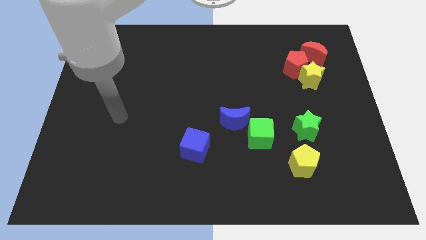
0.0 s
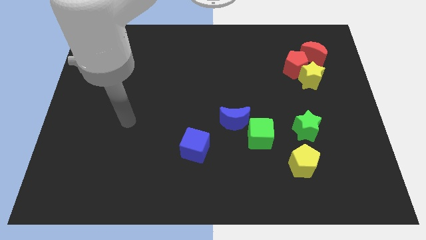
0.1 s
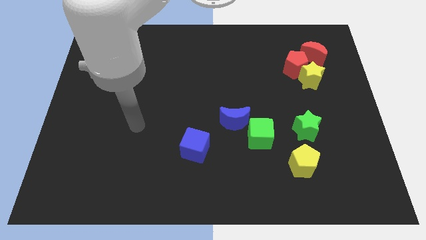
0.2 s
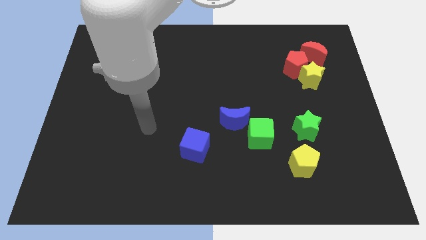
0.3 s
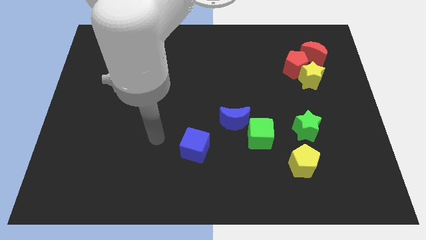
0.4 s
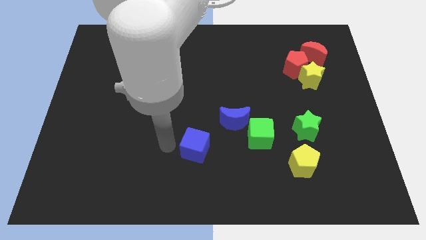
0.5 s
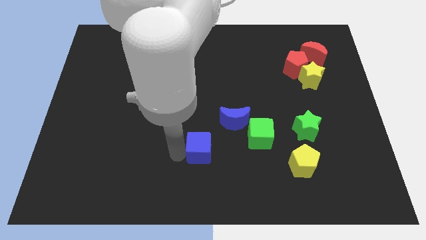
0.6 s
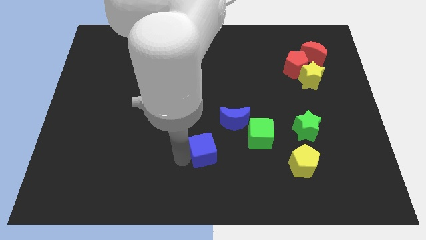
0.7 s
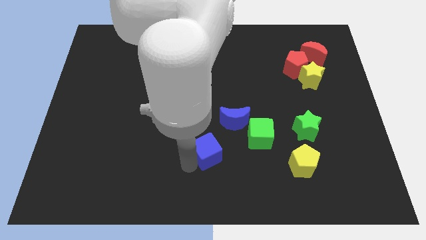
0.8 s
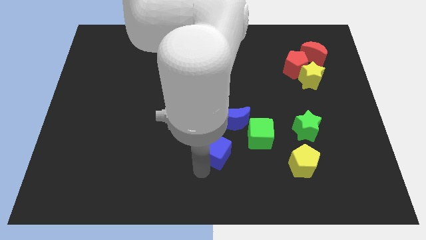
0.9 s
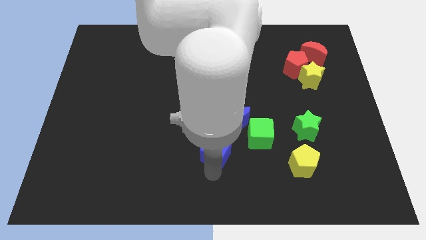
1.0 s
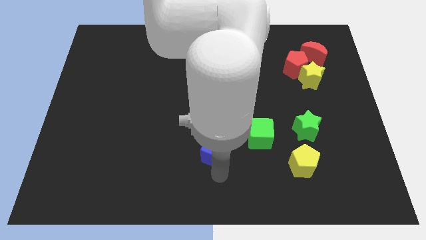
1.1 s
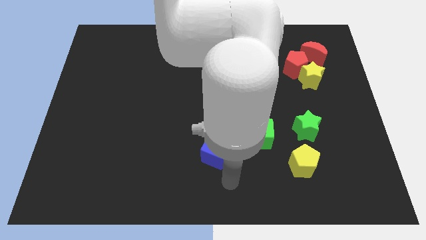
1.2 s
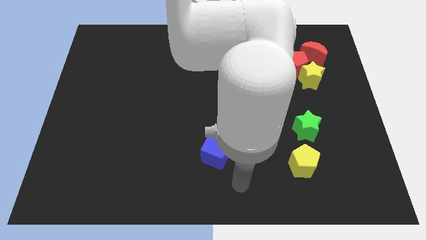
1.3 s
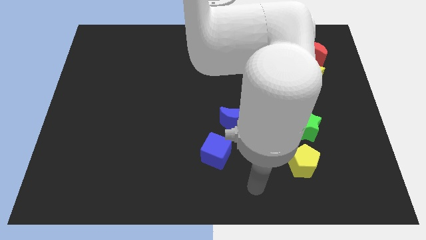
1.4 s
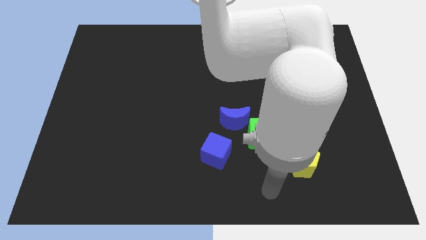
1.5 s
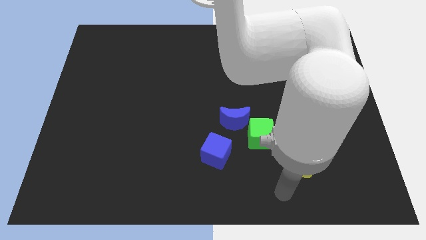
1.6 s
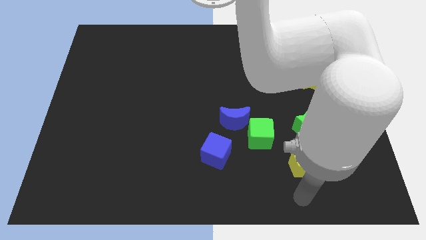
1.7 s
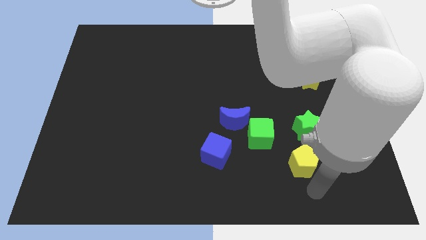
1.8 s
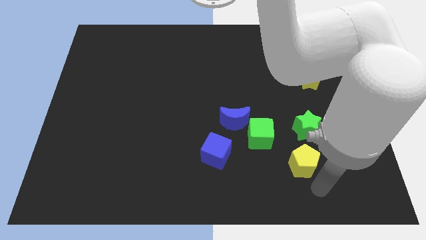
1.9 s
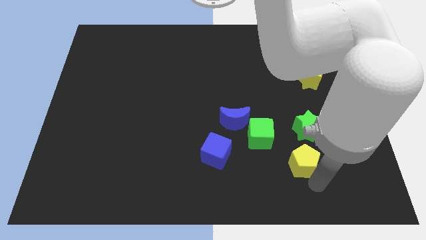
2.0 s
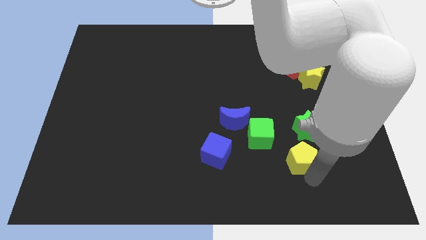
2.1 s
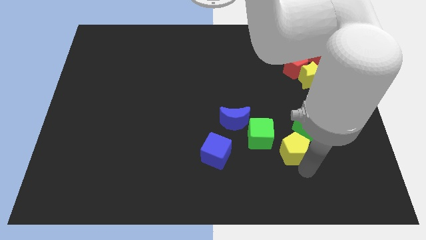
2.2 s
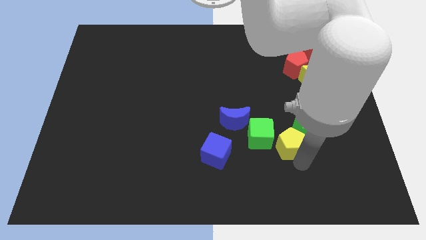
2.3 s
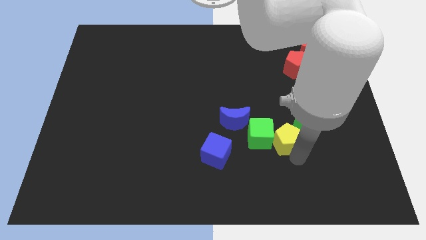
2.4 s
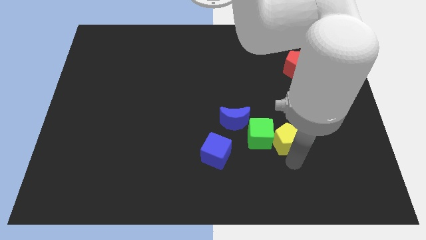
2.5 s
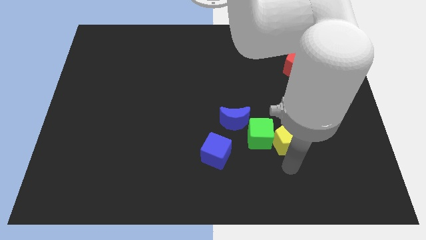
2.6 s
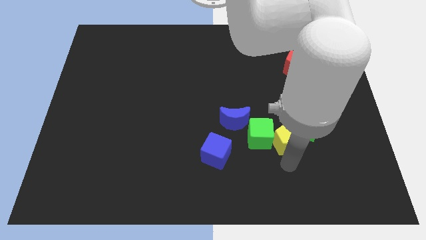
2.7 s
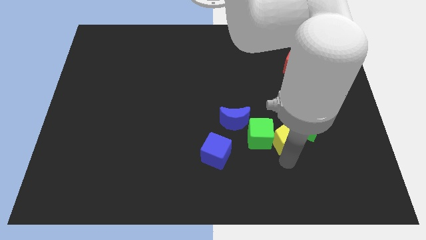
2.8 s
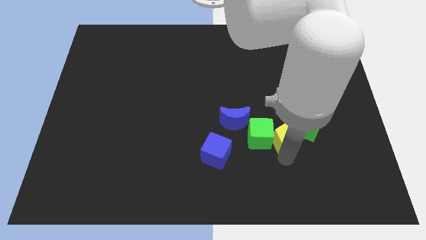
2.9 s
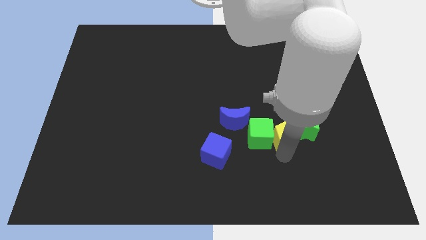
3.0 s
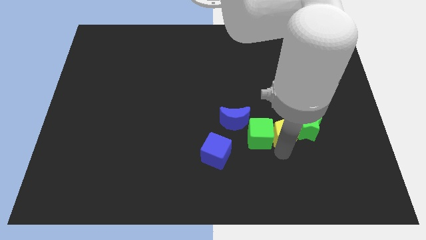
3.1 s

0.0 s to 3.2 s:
move the yellow pentagon somewhat upwards

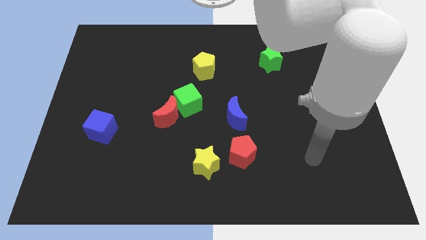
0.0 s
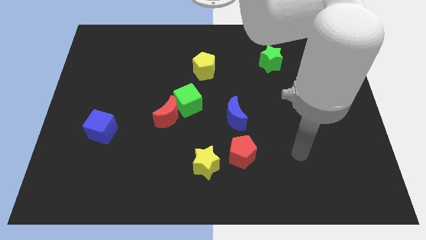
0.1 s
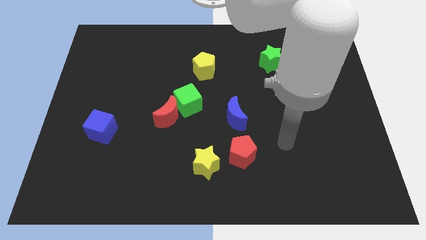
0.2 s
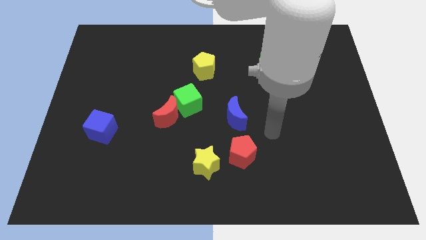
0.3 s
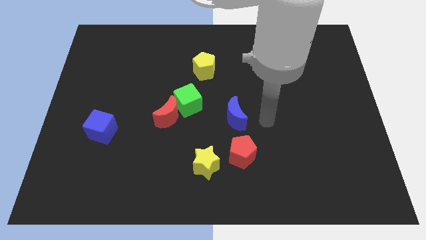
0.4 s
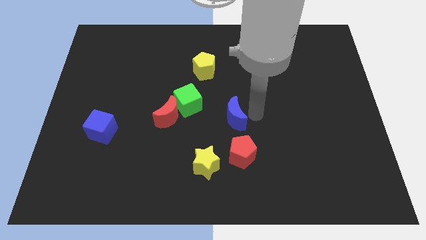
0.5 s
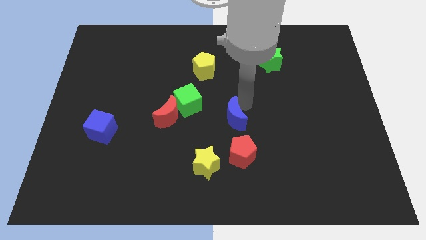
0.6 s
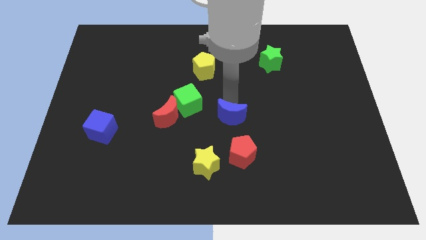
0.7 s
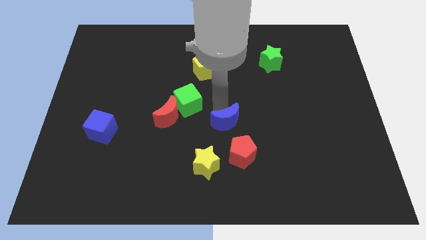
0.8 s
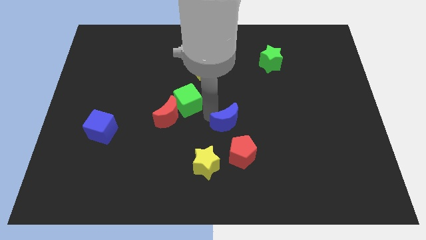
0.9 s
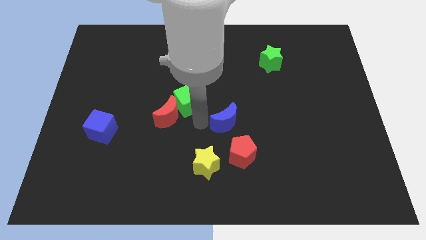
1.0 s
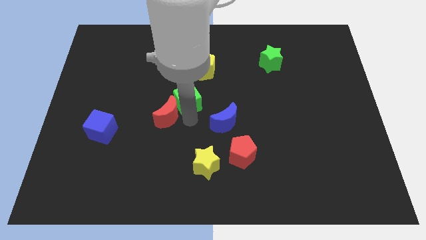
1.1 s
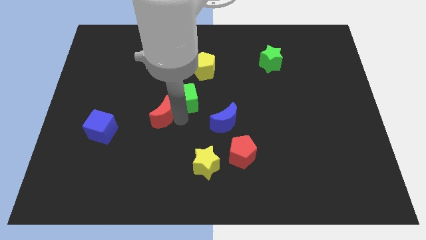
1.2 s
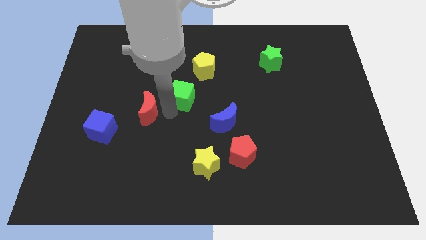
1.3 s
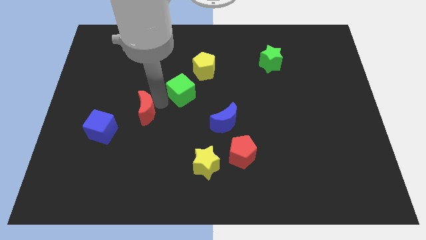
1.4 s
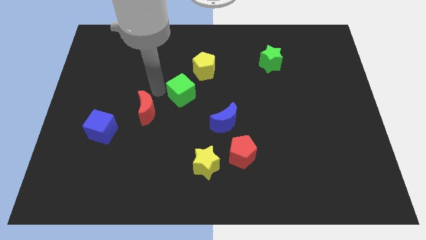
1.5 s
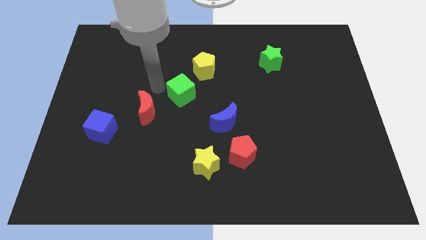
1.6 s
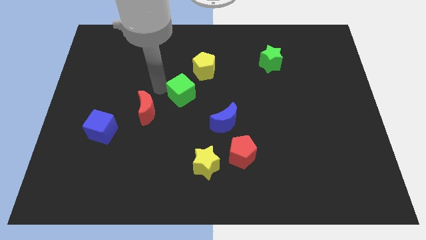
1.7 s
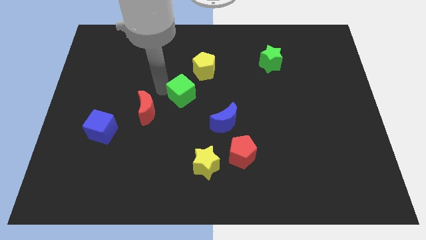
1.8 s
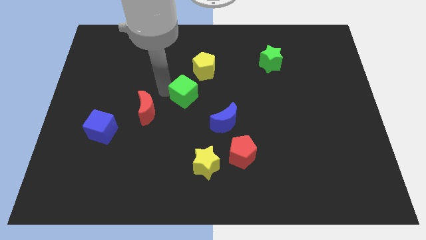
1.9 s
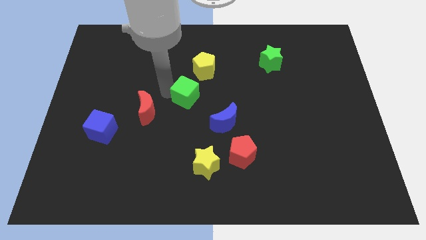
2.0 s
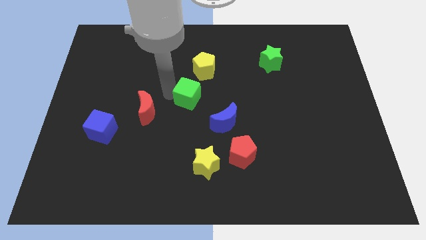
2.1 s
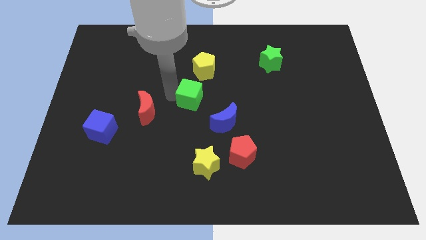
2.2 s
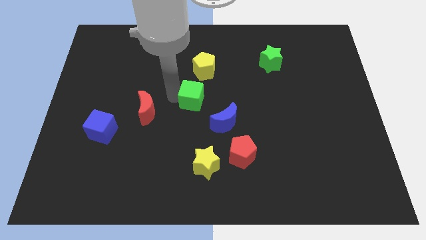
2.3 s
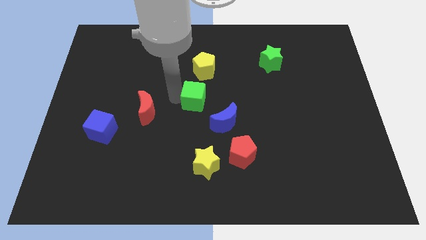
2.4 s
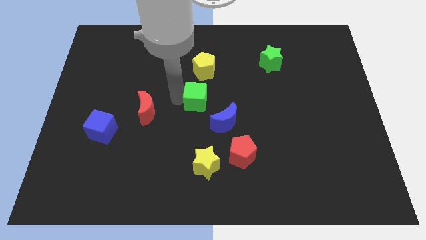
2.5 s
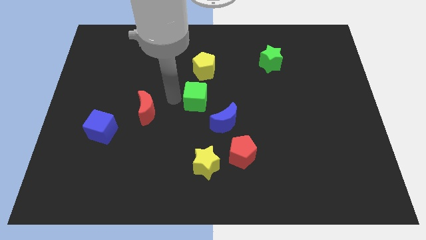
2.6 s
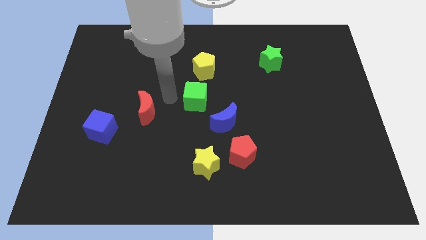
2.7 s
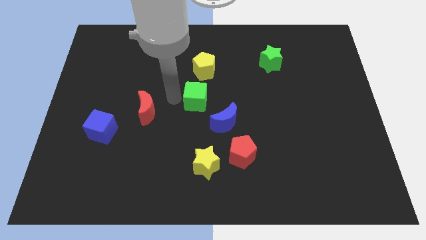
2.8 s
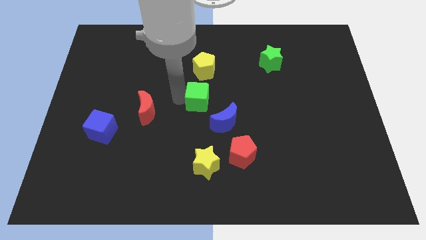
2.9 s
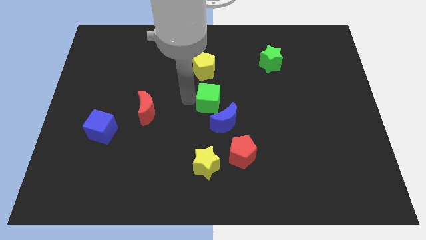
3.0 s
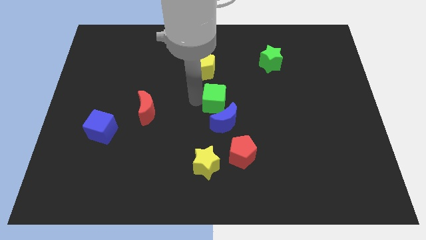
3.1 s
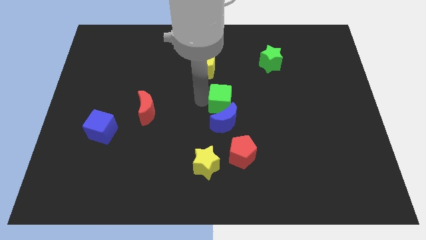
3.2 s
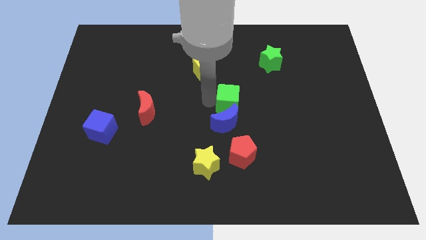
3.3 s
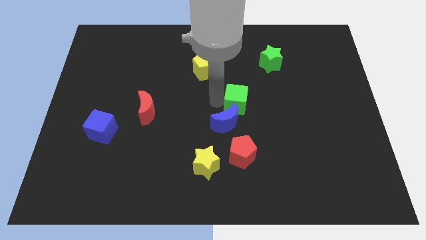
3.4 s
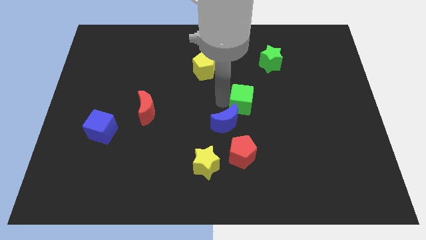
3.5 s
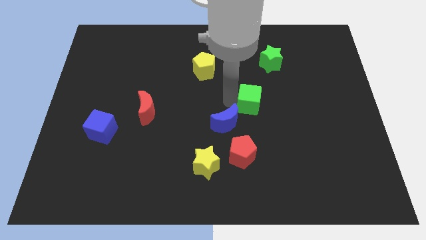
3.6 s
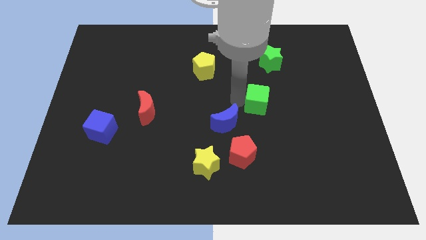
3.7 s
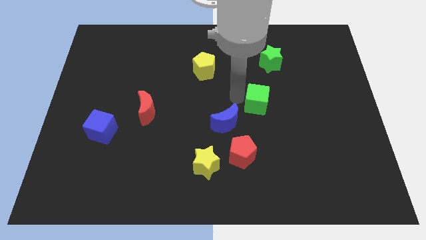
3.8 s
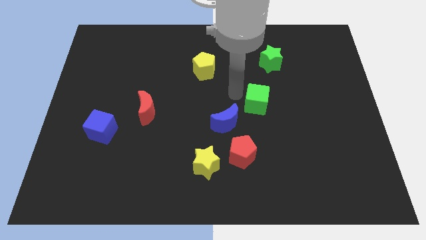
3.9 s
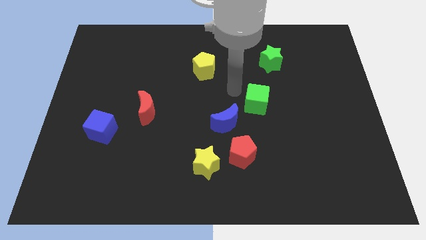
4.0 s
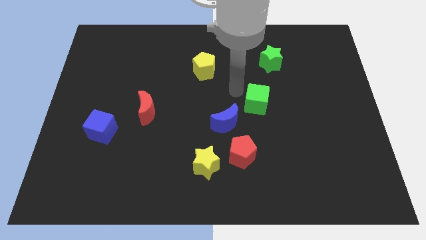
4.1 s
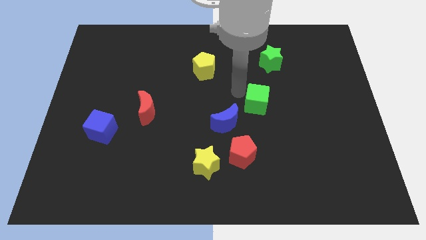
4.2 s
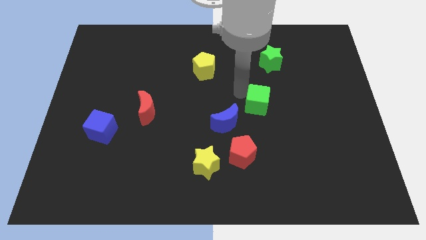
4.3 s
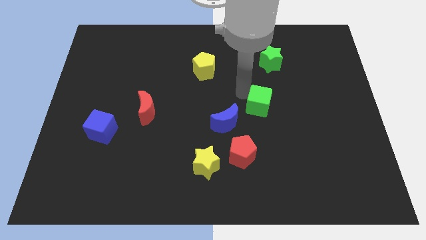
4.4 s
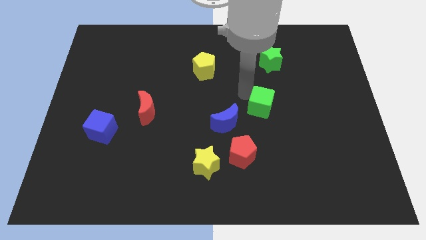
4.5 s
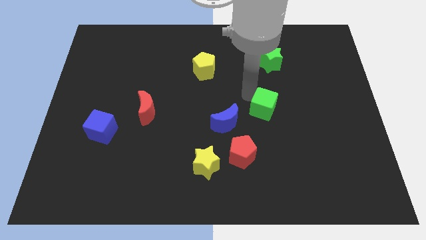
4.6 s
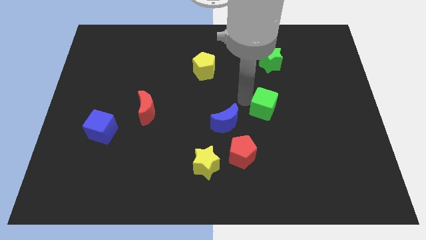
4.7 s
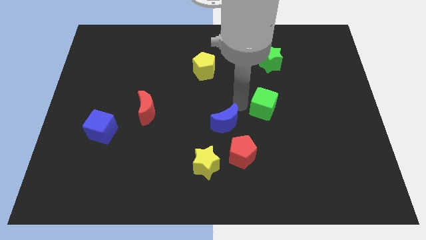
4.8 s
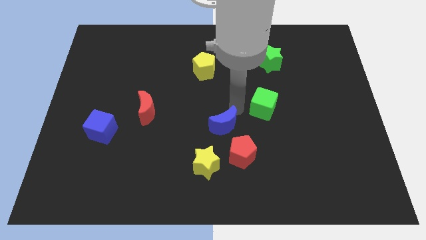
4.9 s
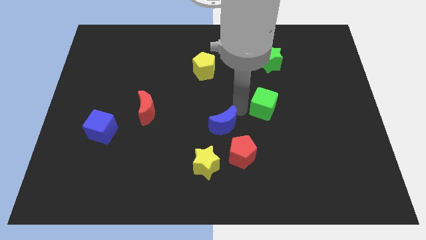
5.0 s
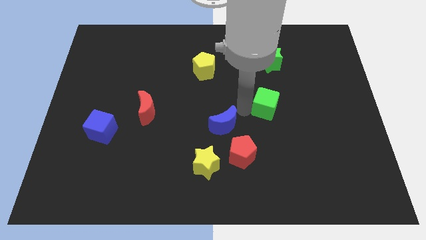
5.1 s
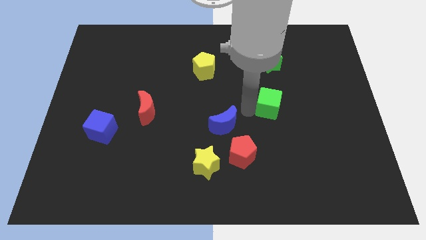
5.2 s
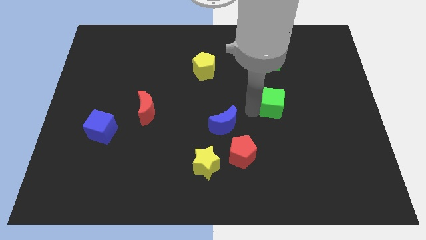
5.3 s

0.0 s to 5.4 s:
move the green cube to the right
